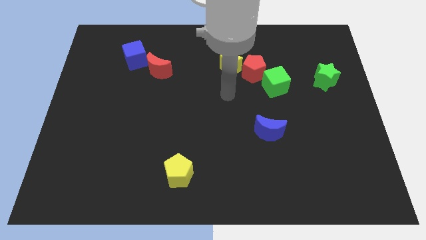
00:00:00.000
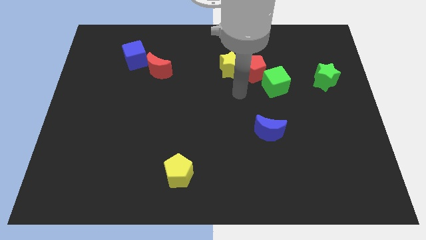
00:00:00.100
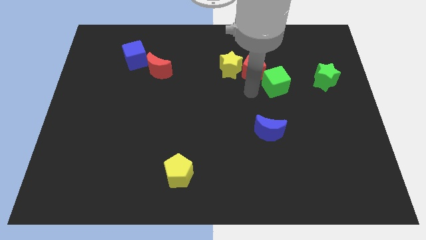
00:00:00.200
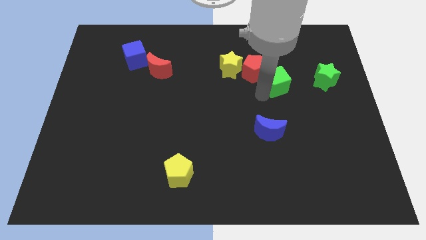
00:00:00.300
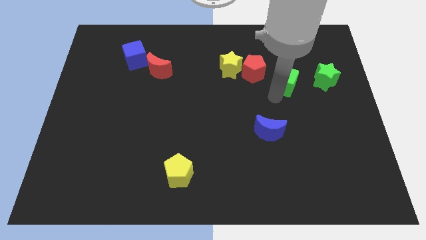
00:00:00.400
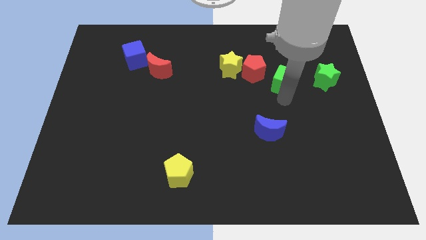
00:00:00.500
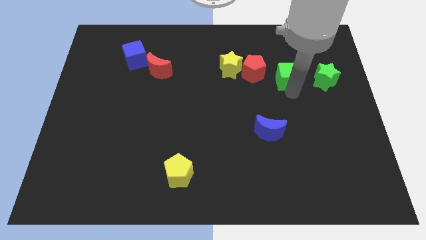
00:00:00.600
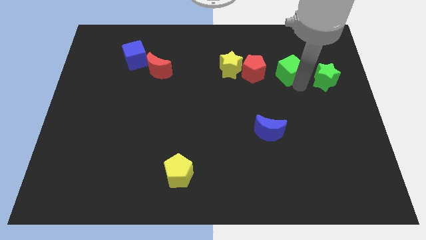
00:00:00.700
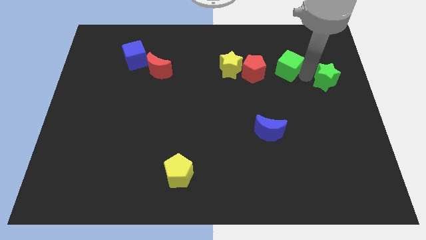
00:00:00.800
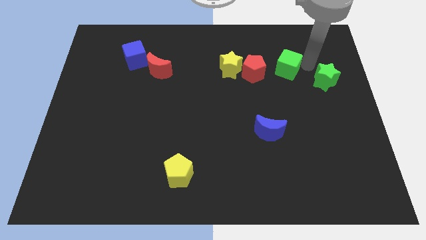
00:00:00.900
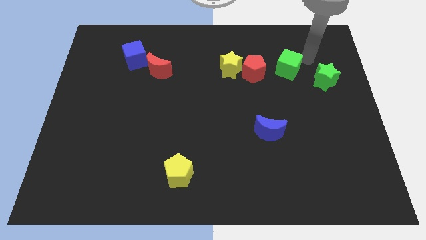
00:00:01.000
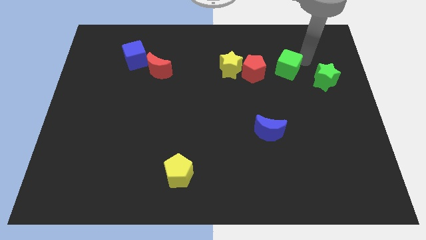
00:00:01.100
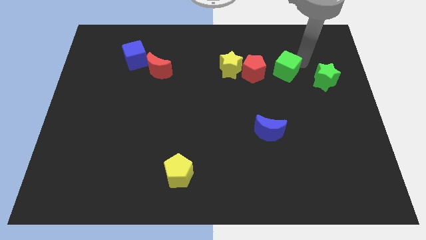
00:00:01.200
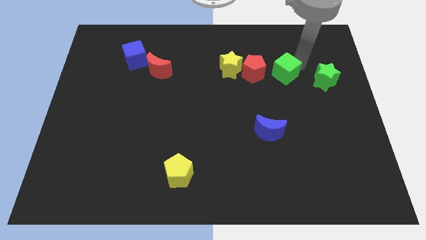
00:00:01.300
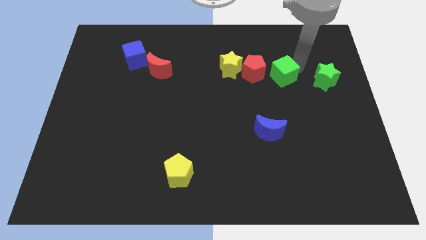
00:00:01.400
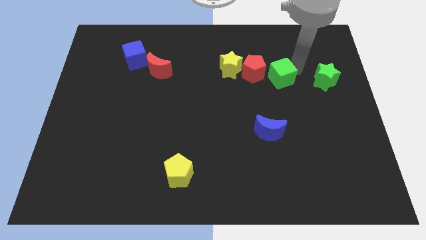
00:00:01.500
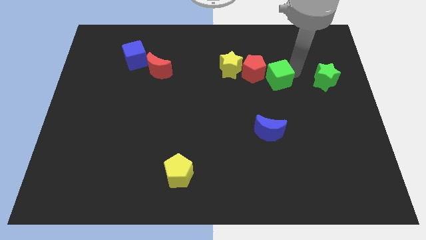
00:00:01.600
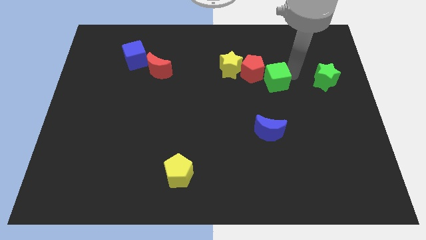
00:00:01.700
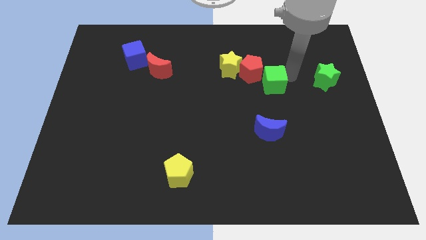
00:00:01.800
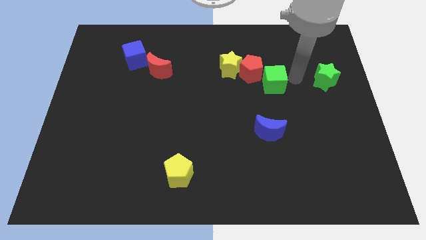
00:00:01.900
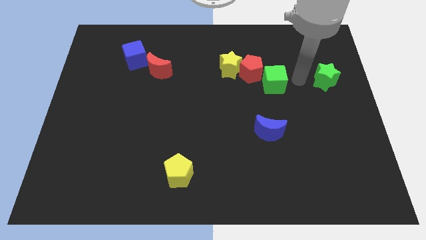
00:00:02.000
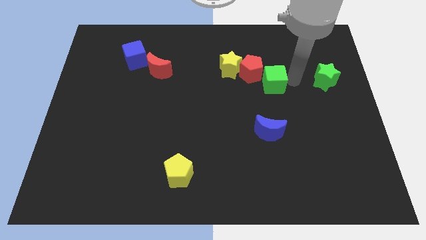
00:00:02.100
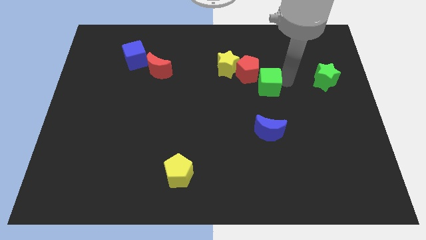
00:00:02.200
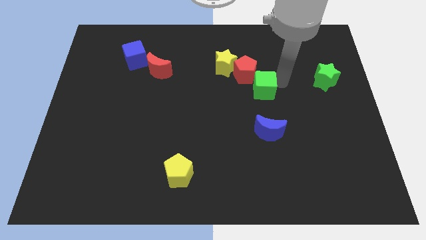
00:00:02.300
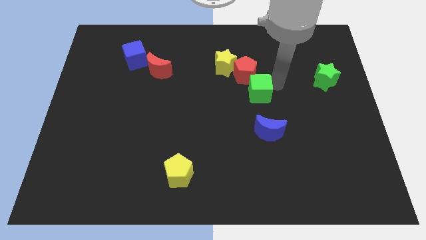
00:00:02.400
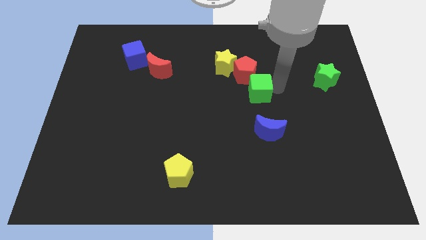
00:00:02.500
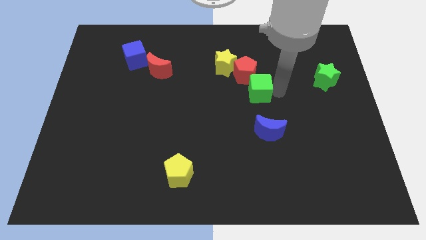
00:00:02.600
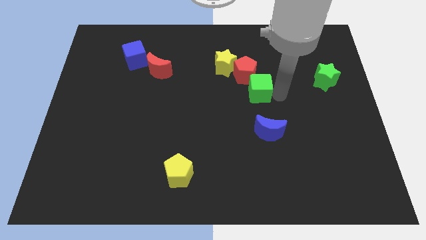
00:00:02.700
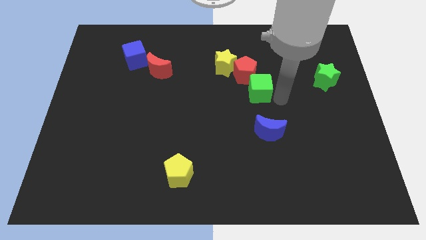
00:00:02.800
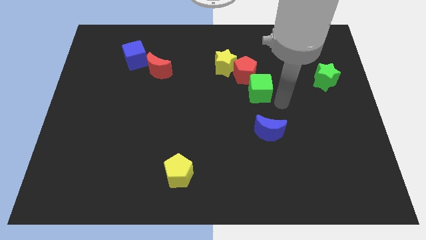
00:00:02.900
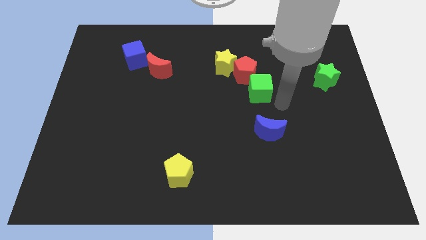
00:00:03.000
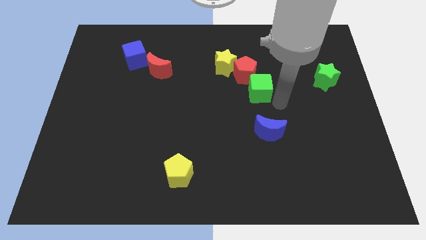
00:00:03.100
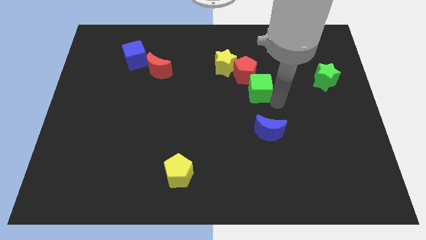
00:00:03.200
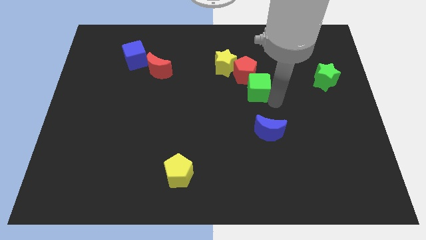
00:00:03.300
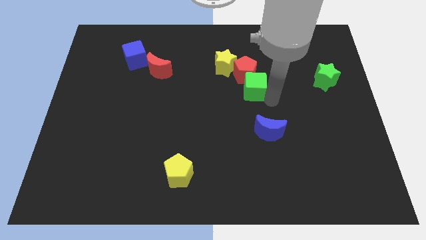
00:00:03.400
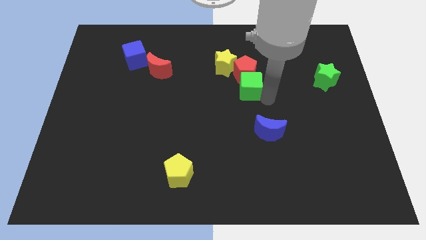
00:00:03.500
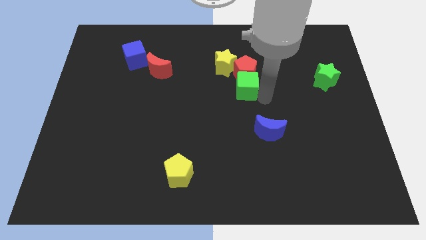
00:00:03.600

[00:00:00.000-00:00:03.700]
slightly move the green cube left

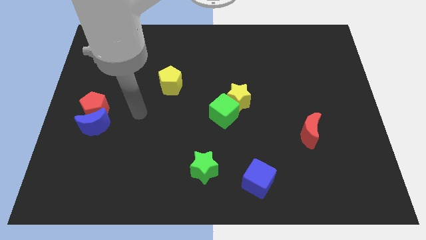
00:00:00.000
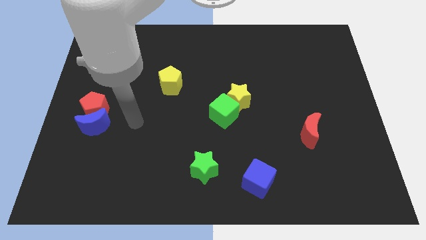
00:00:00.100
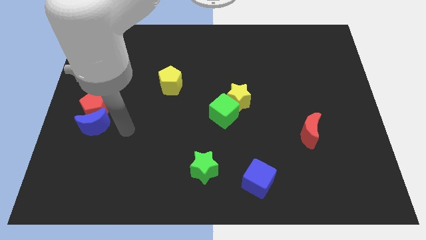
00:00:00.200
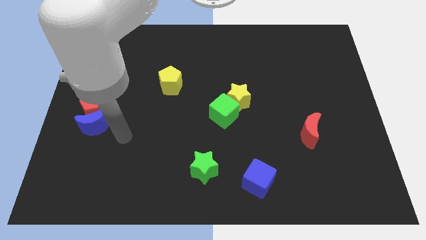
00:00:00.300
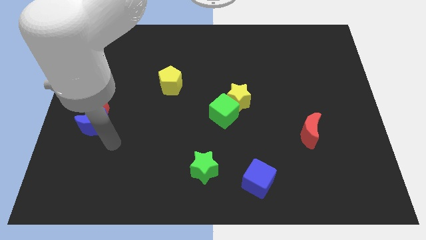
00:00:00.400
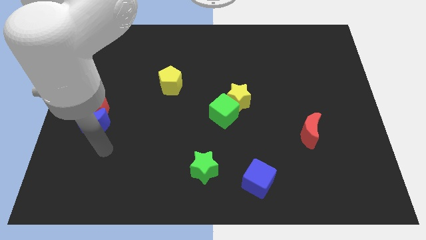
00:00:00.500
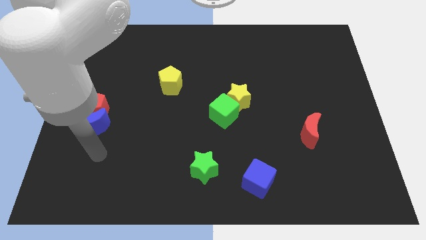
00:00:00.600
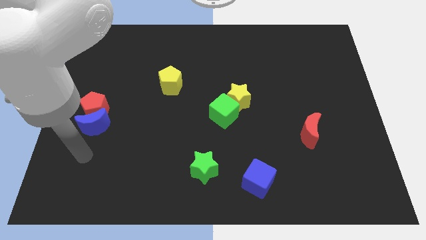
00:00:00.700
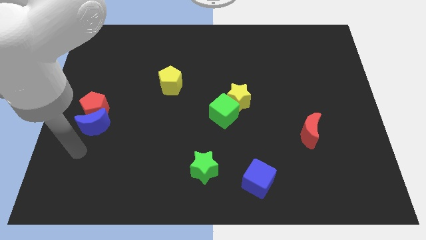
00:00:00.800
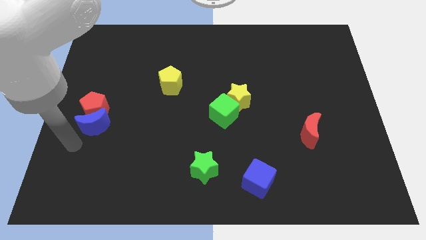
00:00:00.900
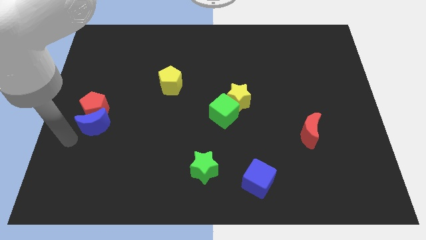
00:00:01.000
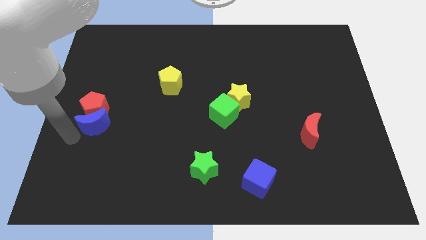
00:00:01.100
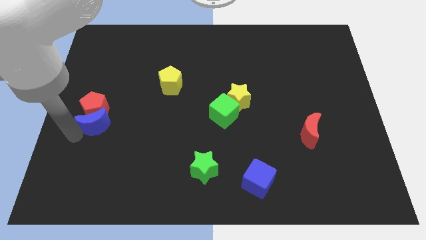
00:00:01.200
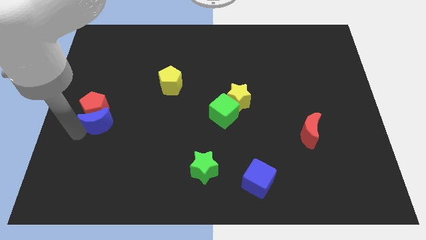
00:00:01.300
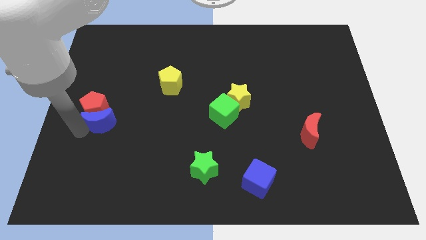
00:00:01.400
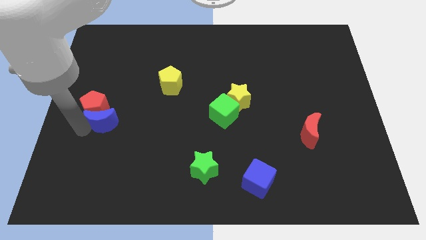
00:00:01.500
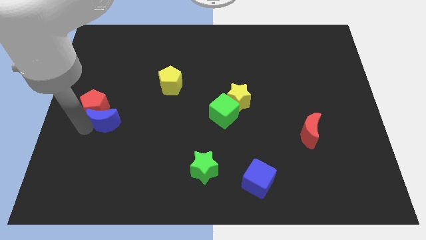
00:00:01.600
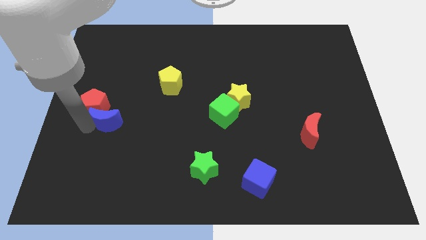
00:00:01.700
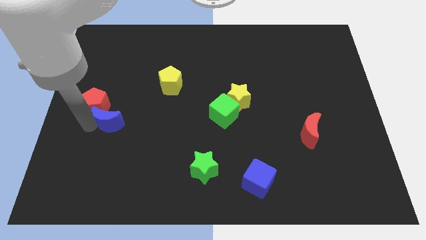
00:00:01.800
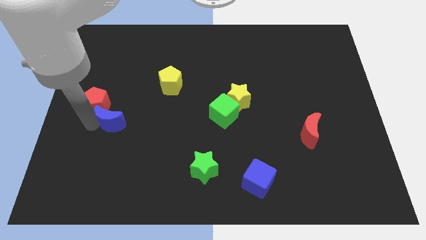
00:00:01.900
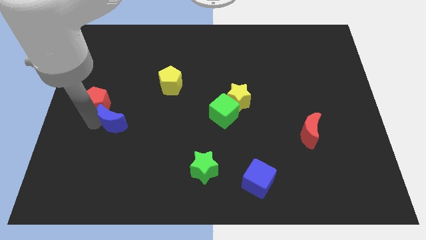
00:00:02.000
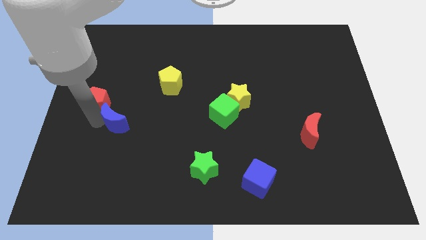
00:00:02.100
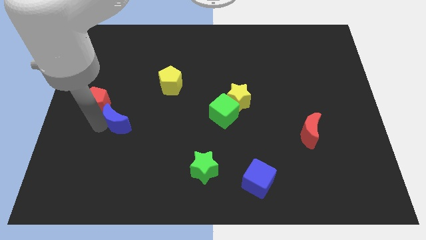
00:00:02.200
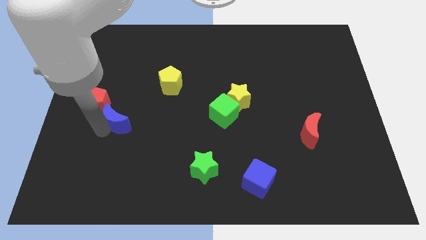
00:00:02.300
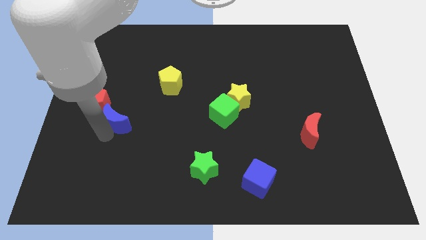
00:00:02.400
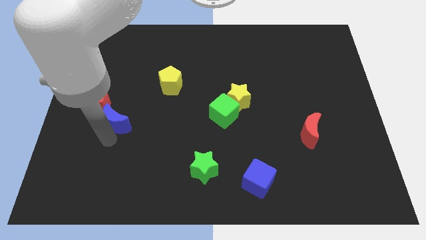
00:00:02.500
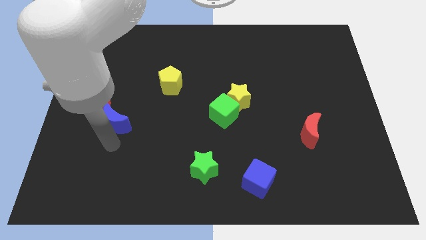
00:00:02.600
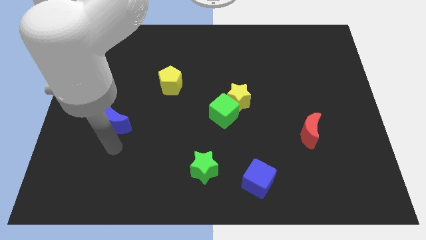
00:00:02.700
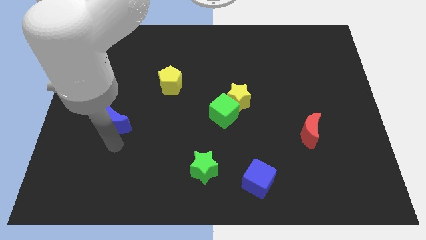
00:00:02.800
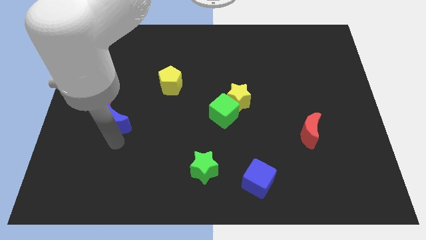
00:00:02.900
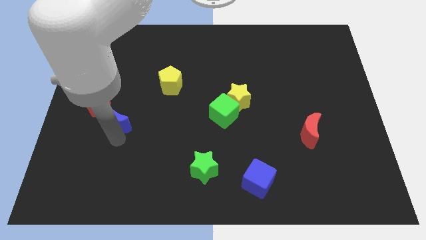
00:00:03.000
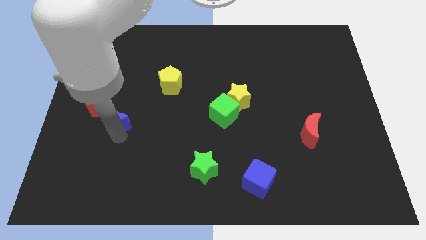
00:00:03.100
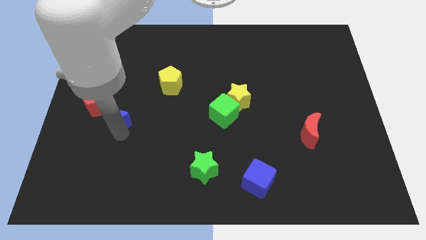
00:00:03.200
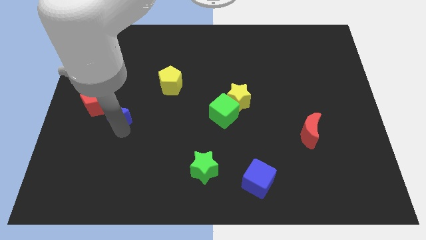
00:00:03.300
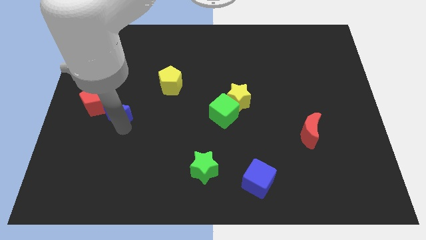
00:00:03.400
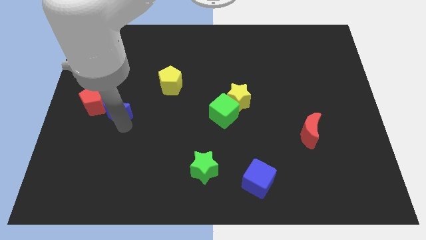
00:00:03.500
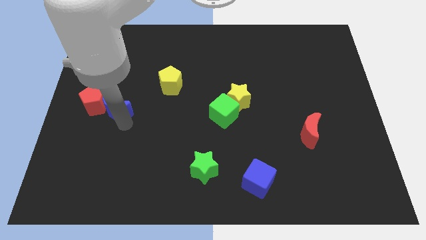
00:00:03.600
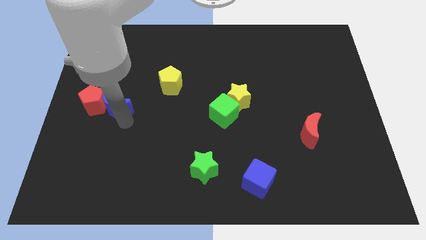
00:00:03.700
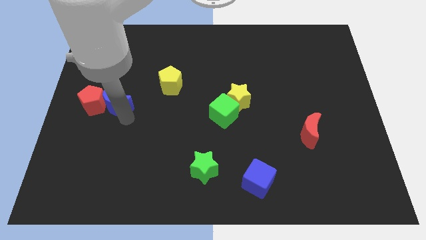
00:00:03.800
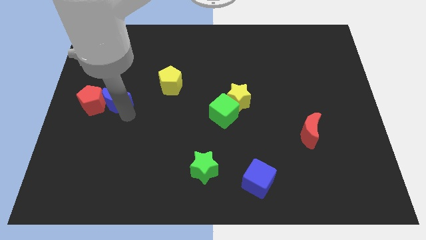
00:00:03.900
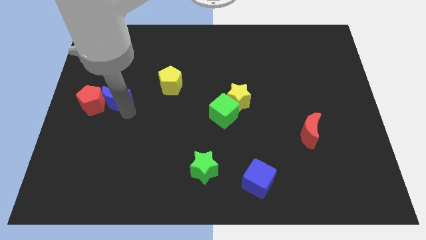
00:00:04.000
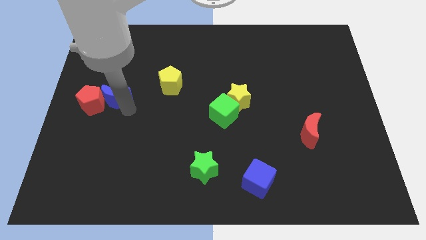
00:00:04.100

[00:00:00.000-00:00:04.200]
move the blue moon somewhat upwards

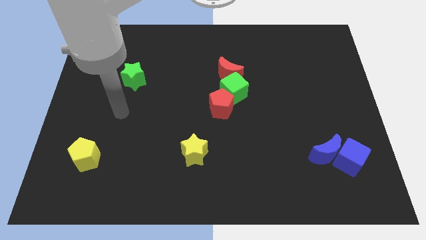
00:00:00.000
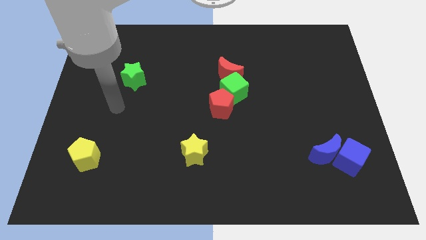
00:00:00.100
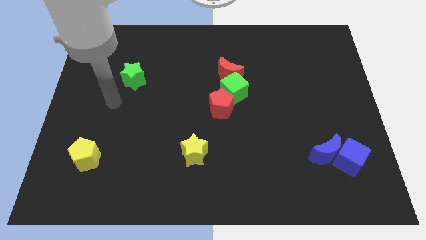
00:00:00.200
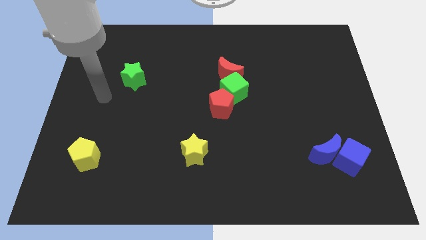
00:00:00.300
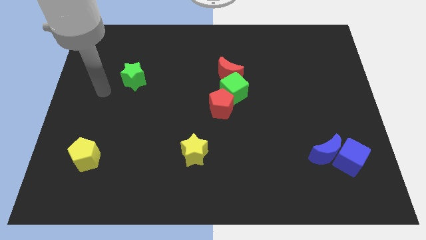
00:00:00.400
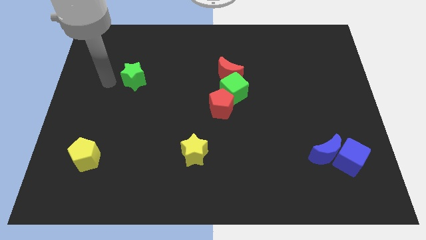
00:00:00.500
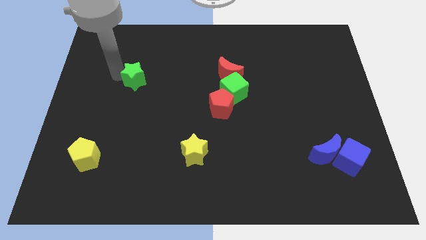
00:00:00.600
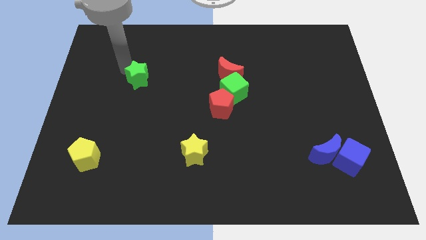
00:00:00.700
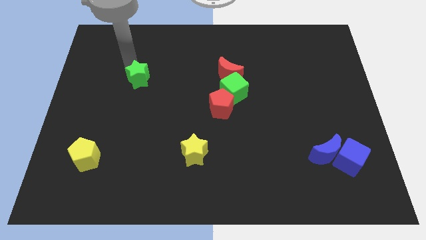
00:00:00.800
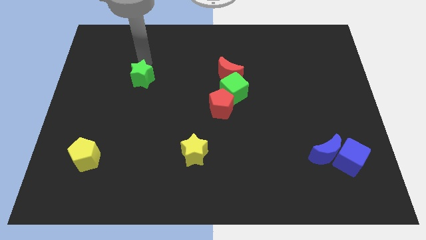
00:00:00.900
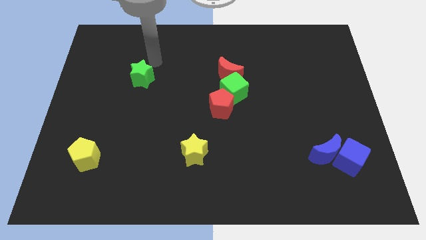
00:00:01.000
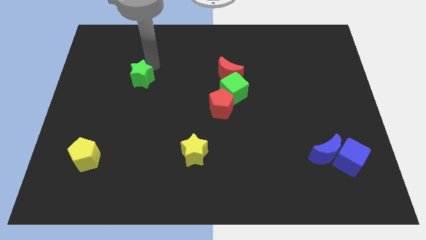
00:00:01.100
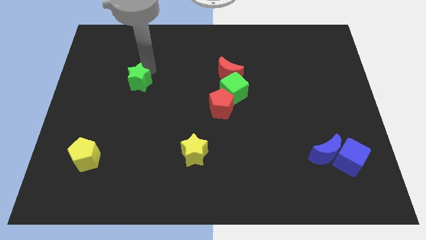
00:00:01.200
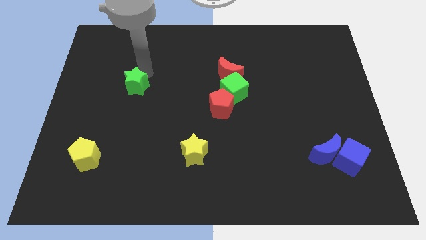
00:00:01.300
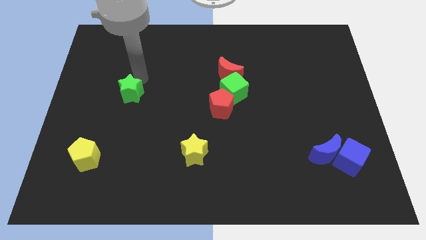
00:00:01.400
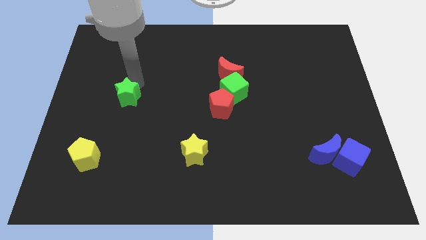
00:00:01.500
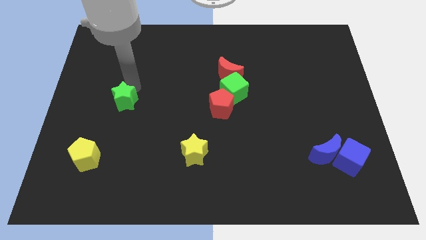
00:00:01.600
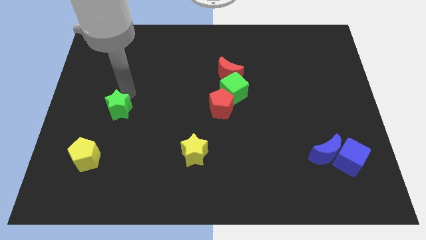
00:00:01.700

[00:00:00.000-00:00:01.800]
slightly push the green star down
